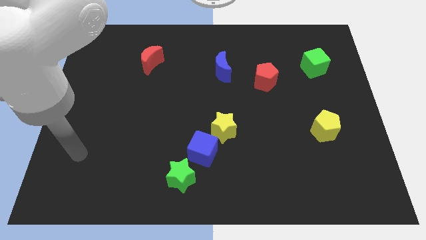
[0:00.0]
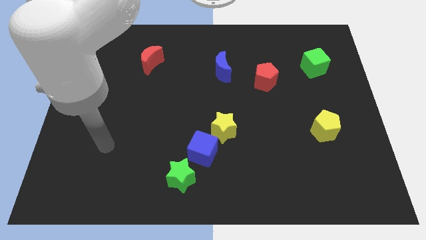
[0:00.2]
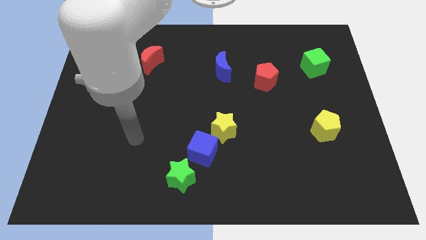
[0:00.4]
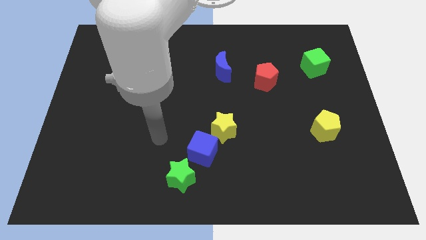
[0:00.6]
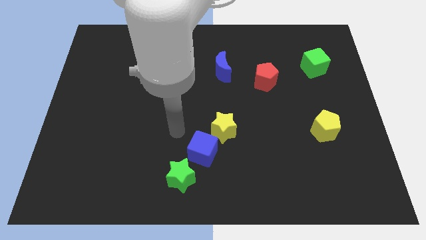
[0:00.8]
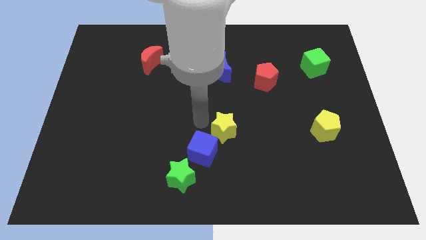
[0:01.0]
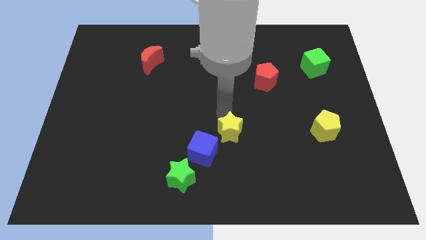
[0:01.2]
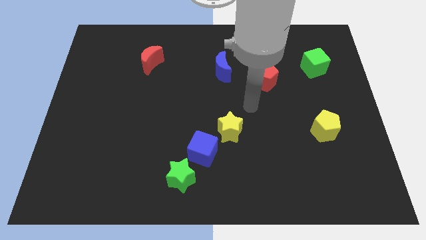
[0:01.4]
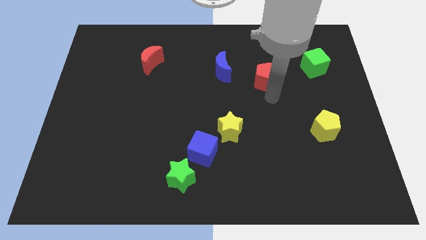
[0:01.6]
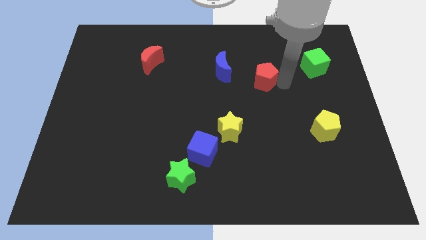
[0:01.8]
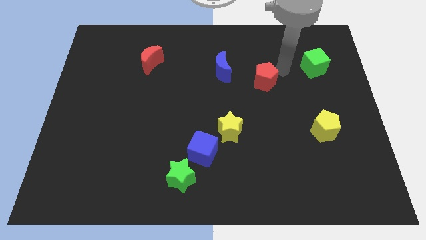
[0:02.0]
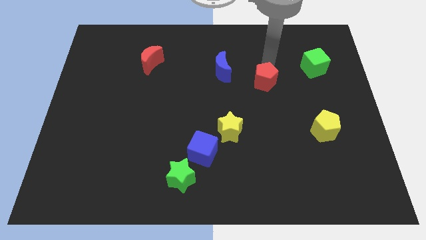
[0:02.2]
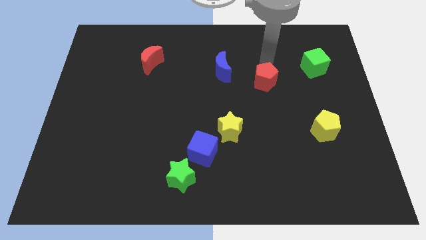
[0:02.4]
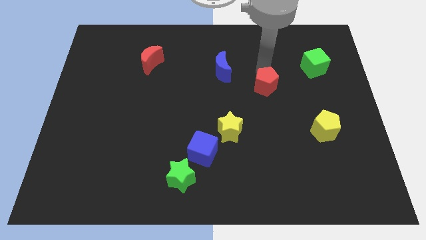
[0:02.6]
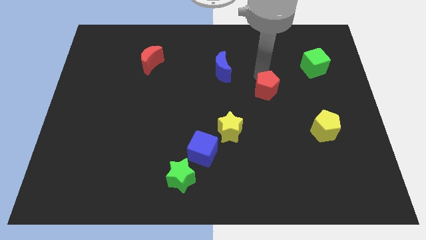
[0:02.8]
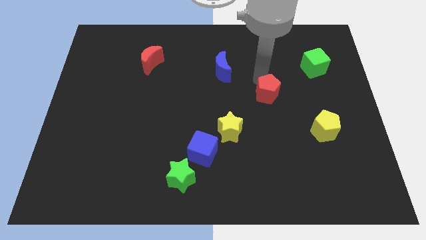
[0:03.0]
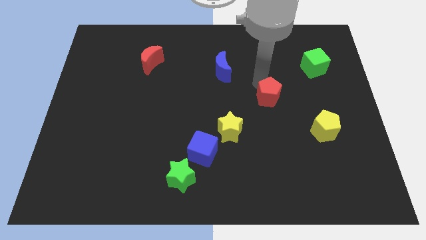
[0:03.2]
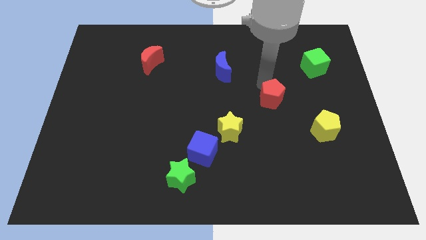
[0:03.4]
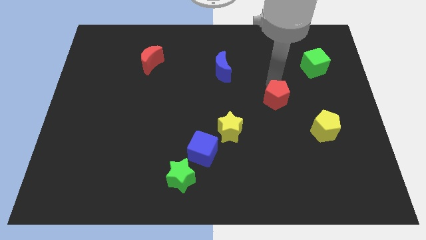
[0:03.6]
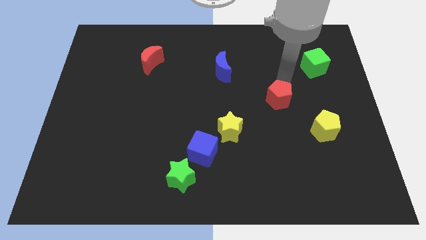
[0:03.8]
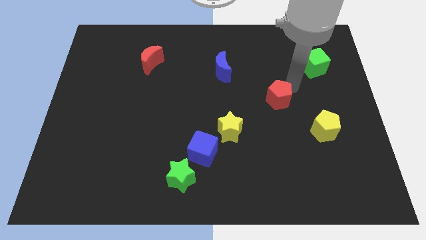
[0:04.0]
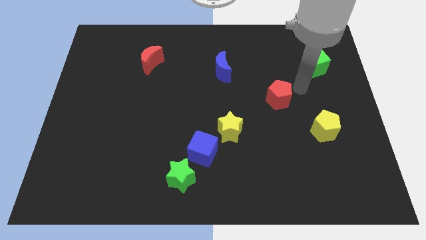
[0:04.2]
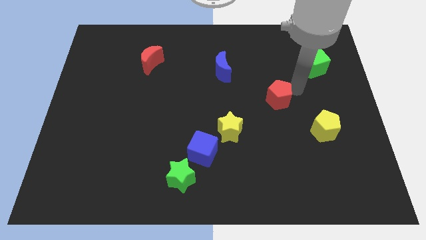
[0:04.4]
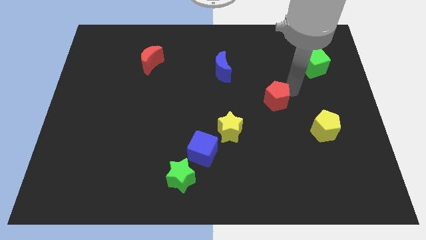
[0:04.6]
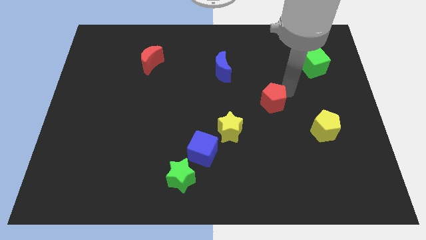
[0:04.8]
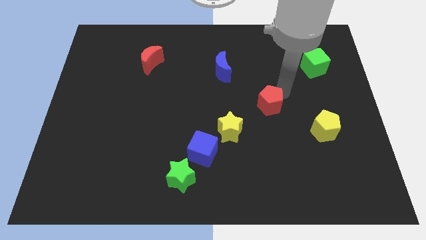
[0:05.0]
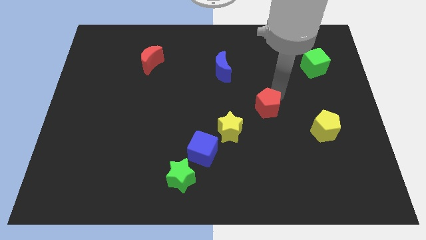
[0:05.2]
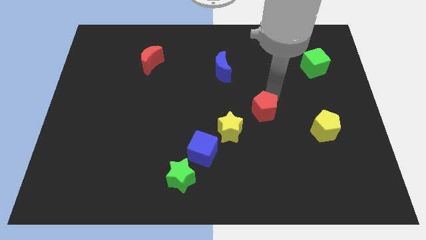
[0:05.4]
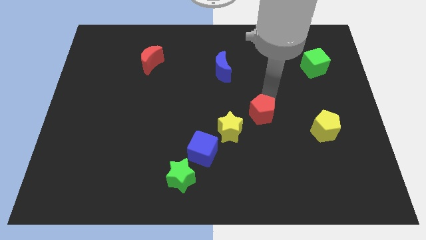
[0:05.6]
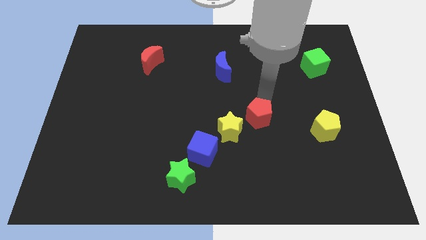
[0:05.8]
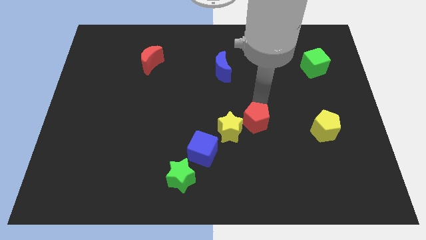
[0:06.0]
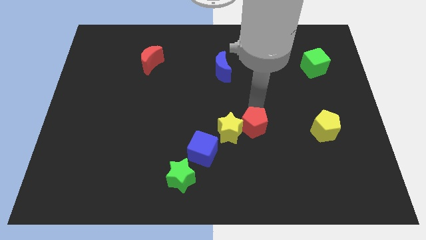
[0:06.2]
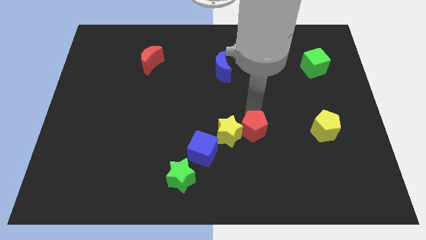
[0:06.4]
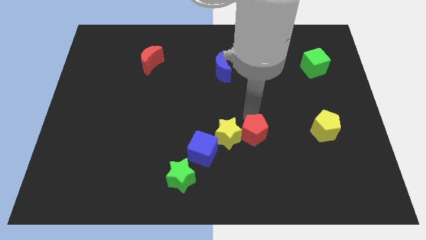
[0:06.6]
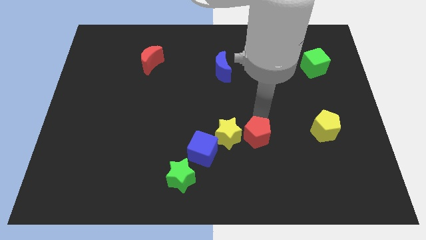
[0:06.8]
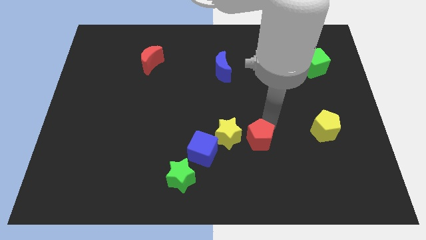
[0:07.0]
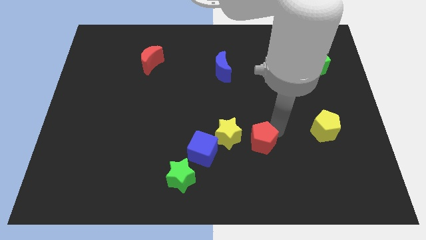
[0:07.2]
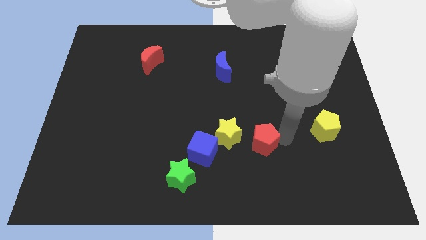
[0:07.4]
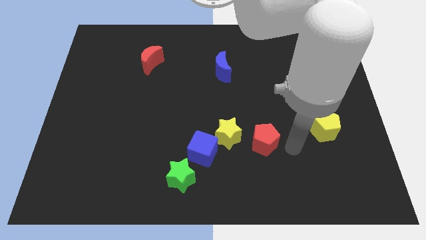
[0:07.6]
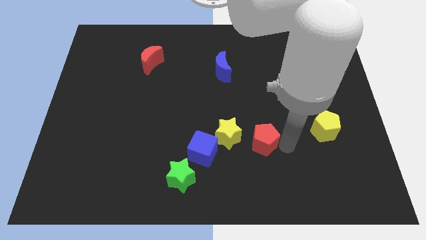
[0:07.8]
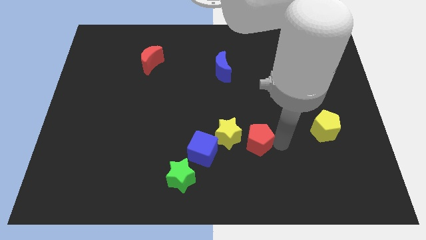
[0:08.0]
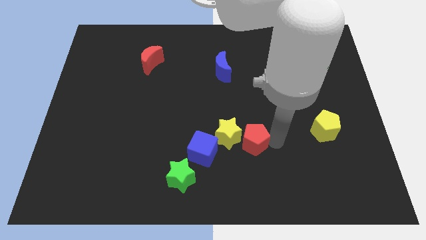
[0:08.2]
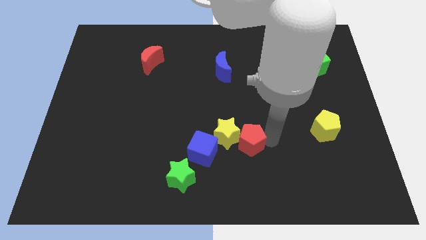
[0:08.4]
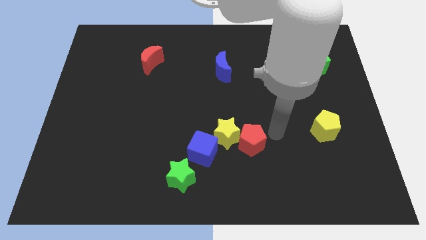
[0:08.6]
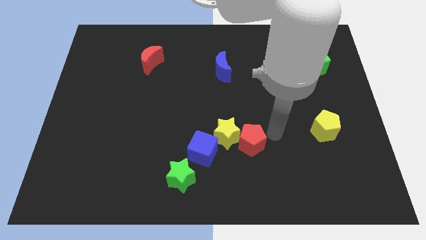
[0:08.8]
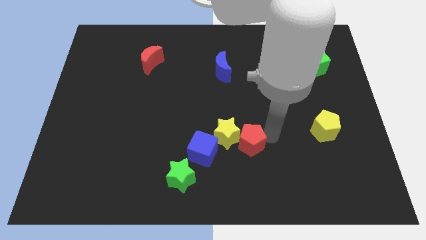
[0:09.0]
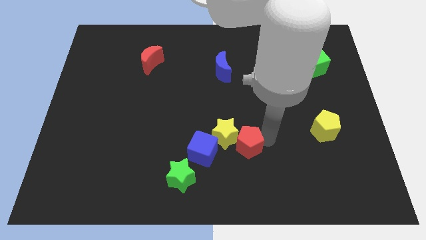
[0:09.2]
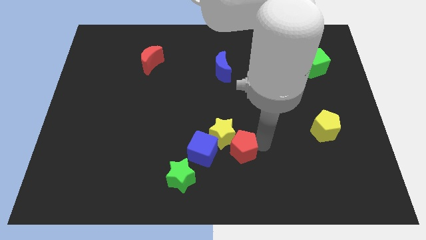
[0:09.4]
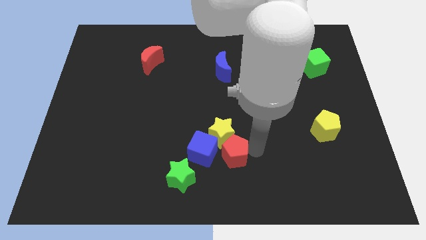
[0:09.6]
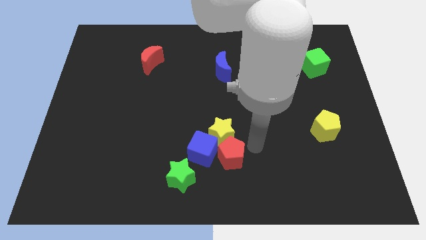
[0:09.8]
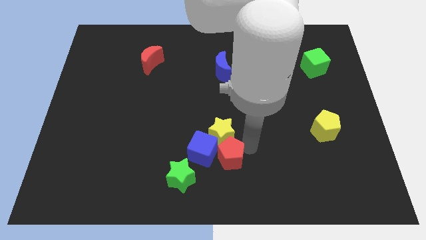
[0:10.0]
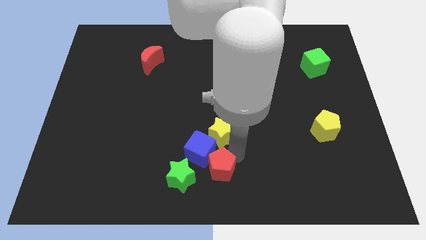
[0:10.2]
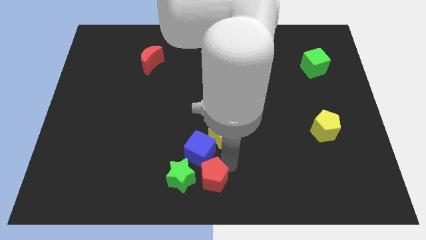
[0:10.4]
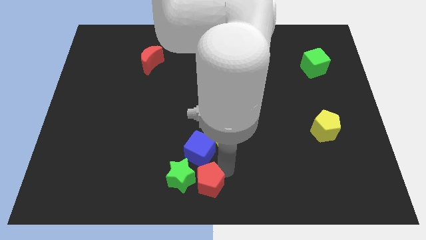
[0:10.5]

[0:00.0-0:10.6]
slide the red pentagon to the green star

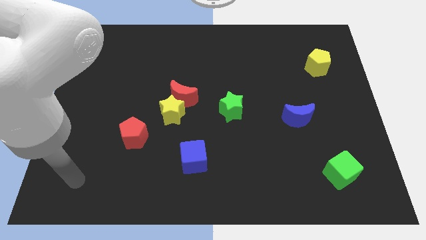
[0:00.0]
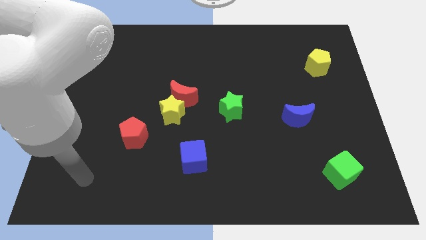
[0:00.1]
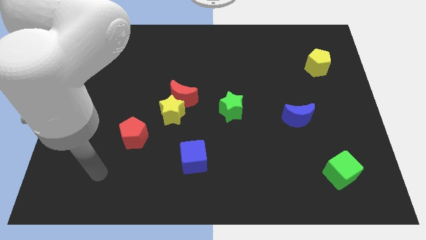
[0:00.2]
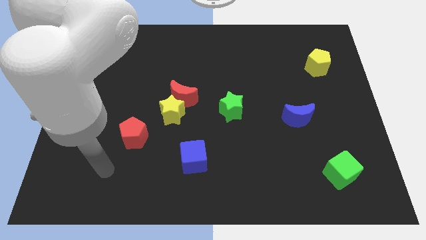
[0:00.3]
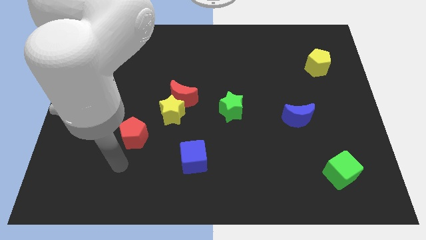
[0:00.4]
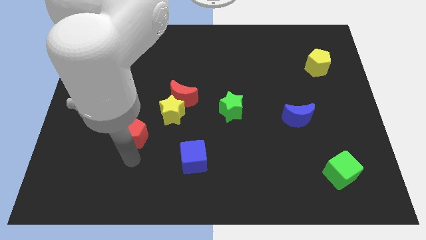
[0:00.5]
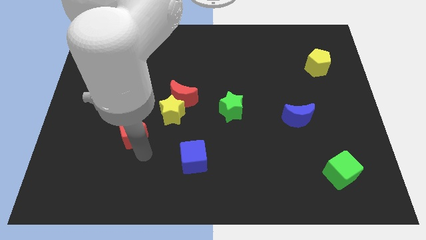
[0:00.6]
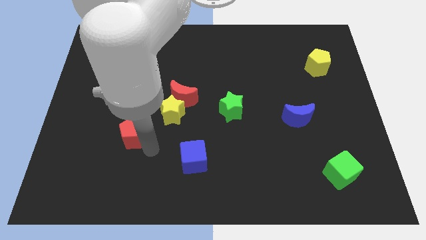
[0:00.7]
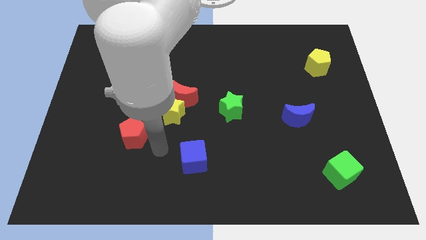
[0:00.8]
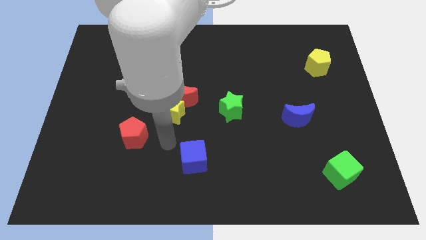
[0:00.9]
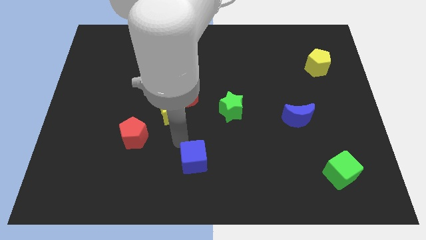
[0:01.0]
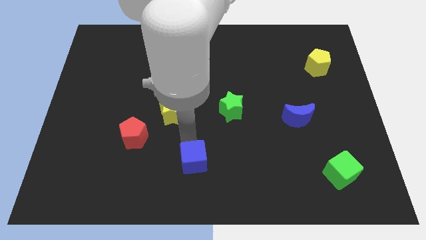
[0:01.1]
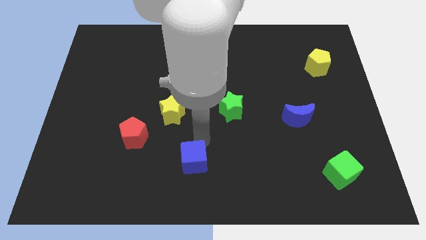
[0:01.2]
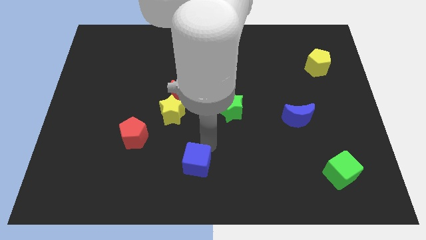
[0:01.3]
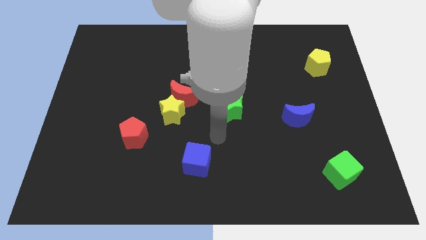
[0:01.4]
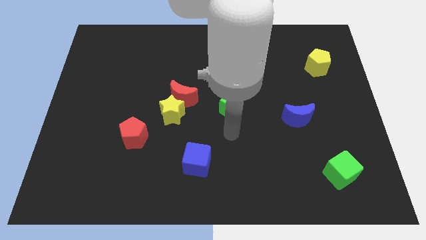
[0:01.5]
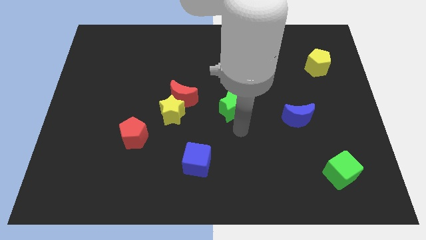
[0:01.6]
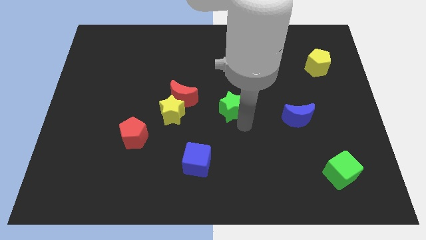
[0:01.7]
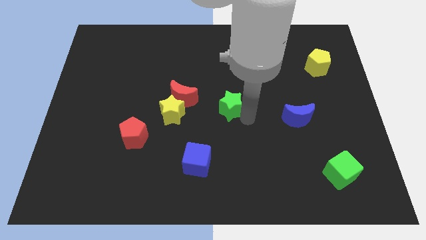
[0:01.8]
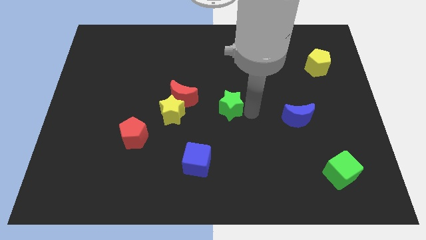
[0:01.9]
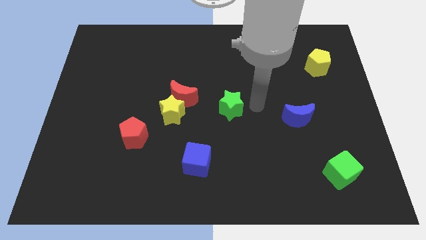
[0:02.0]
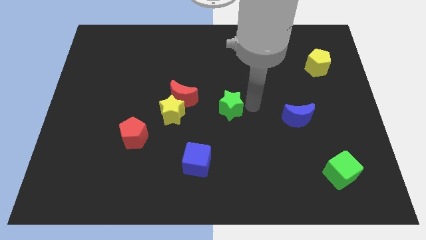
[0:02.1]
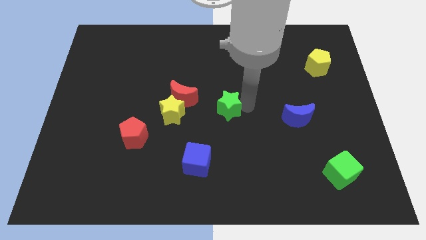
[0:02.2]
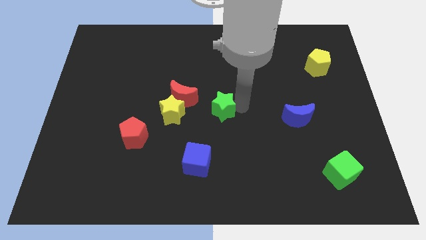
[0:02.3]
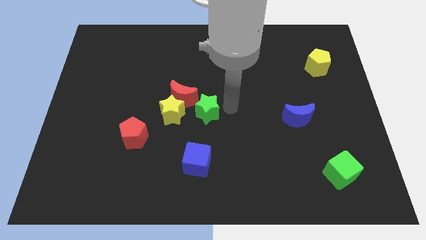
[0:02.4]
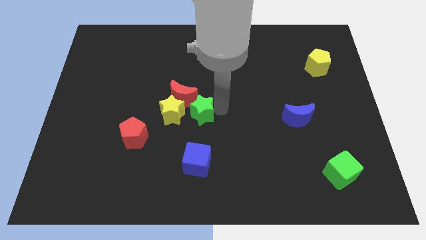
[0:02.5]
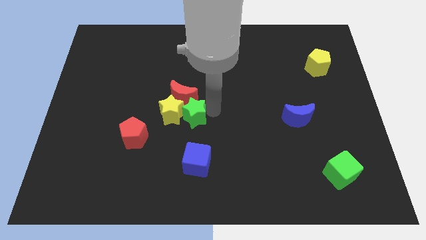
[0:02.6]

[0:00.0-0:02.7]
push the green star to the yellow star
